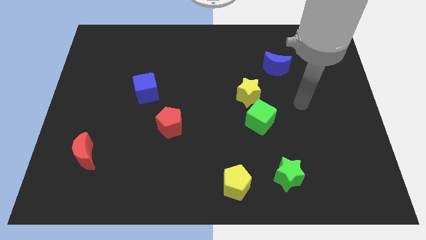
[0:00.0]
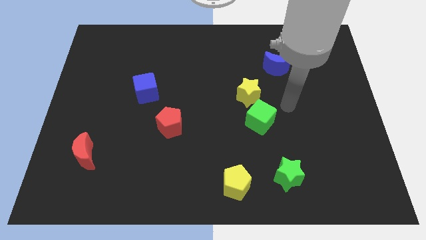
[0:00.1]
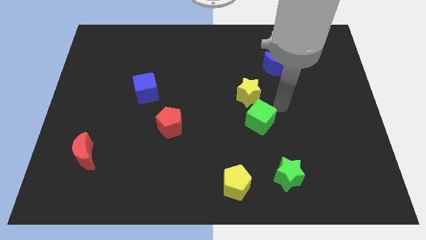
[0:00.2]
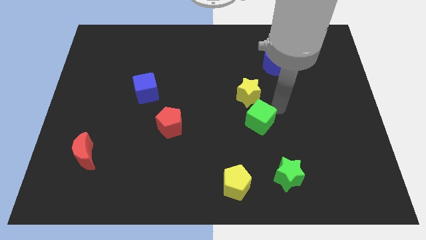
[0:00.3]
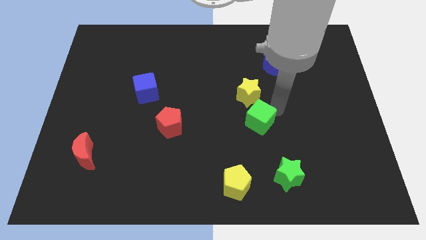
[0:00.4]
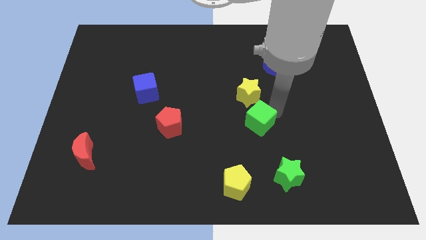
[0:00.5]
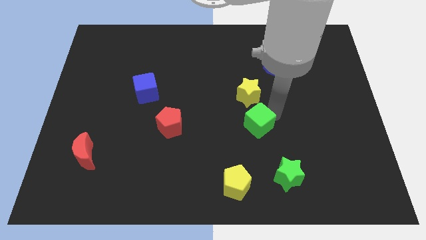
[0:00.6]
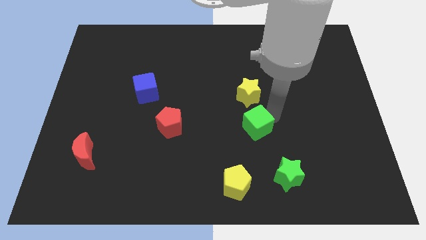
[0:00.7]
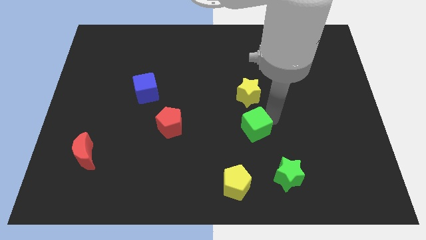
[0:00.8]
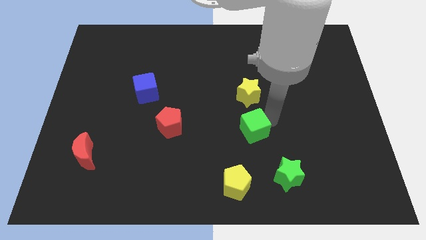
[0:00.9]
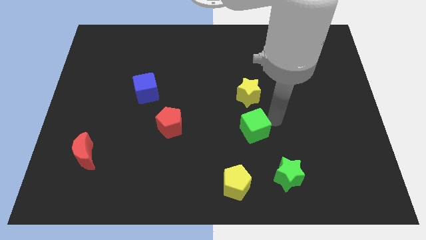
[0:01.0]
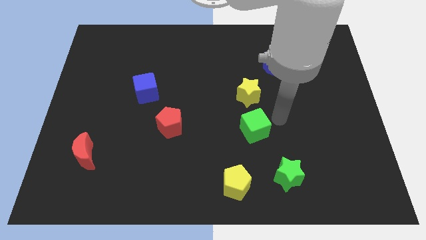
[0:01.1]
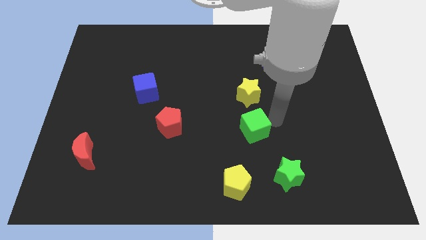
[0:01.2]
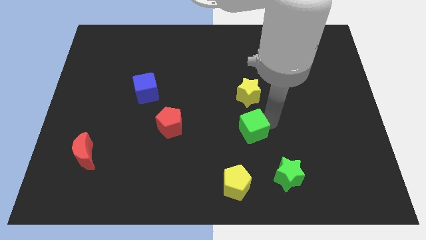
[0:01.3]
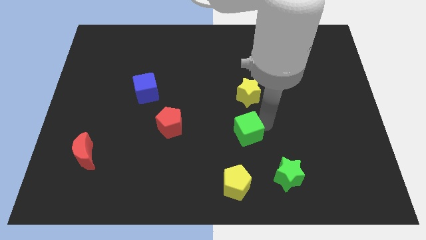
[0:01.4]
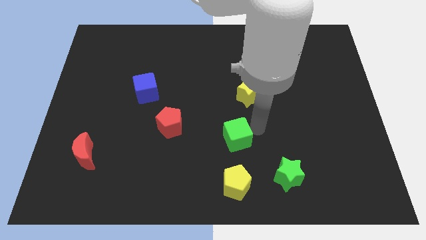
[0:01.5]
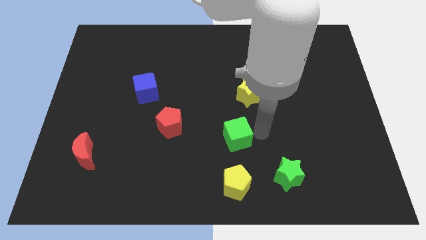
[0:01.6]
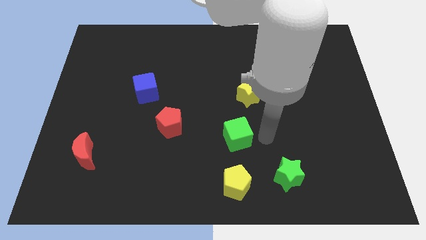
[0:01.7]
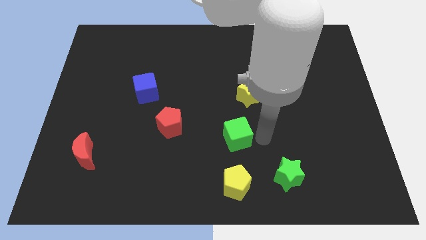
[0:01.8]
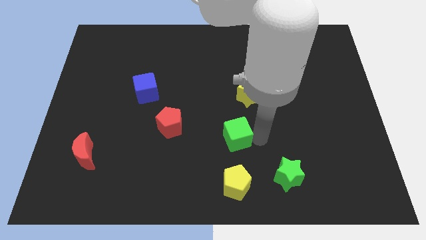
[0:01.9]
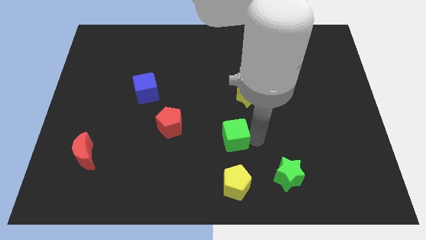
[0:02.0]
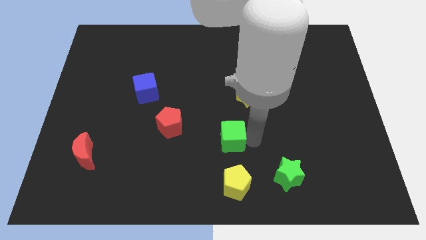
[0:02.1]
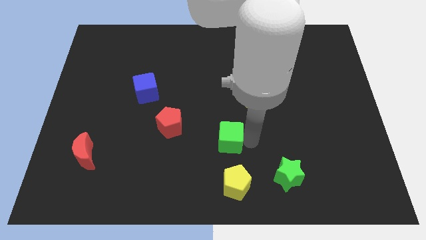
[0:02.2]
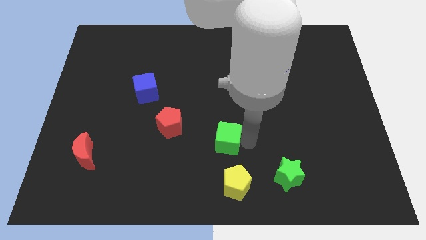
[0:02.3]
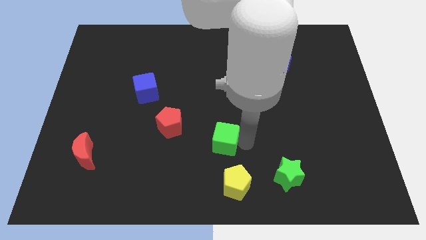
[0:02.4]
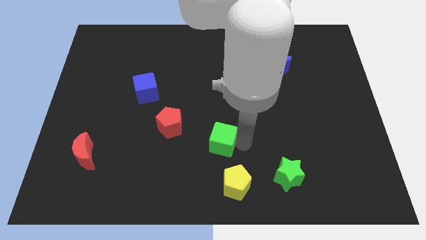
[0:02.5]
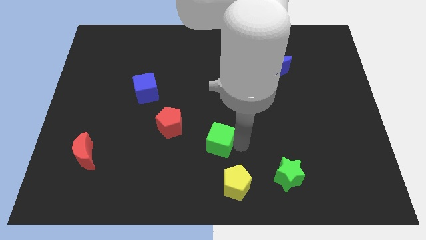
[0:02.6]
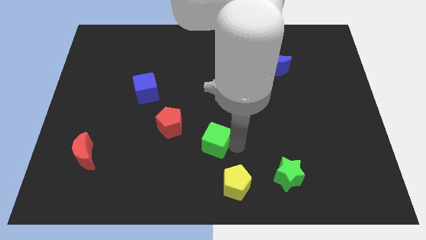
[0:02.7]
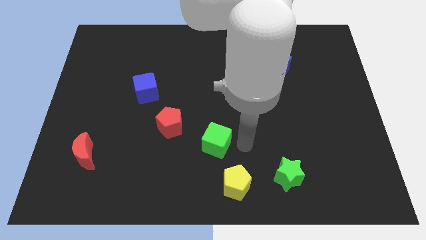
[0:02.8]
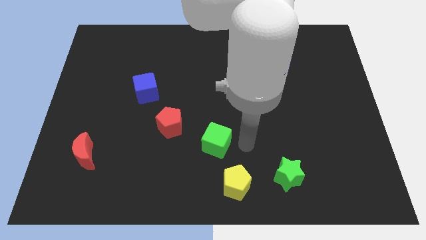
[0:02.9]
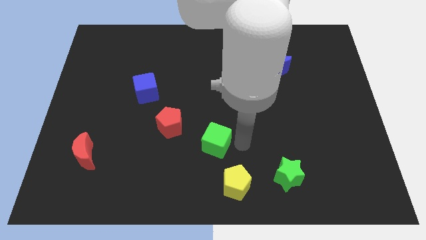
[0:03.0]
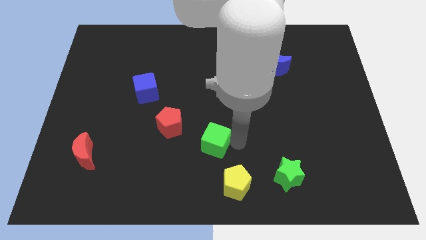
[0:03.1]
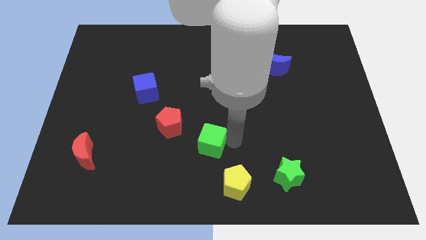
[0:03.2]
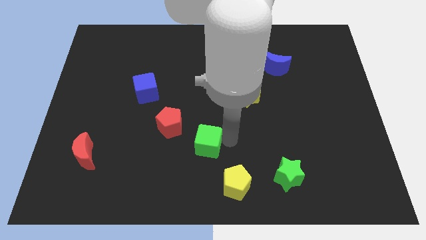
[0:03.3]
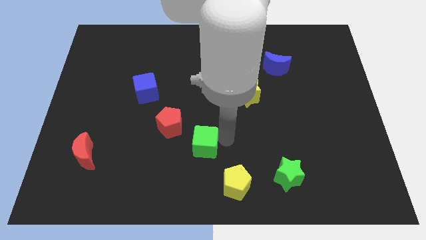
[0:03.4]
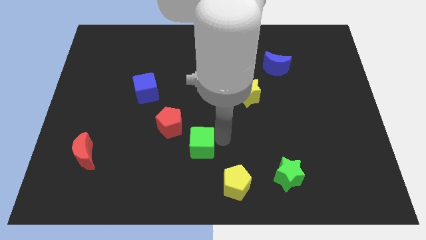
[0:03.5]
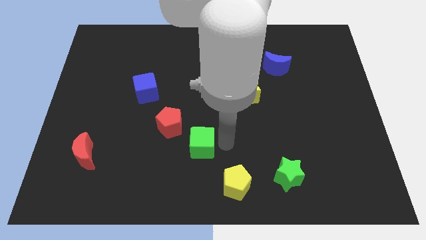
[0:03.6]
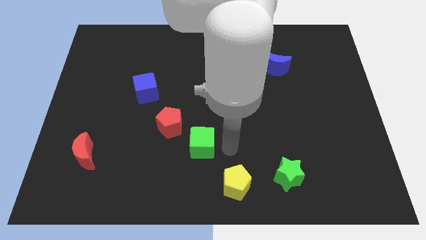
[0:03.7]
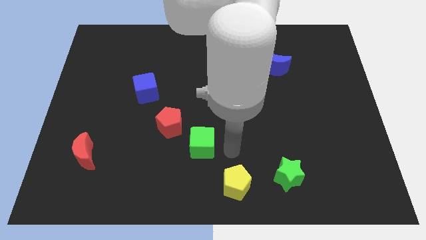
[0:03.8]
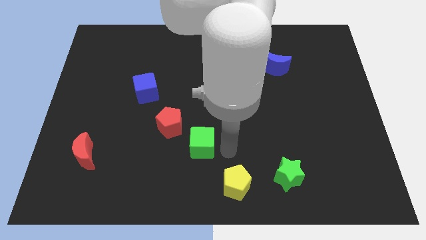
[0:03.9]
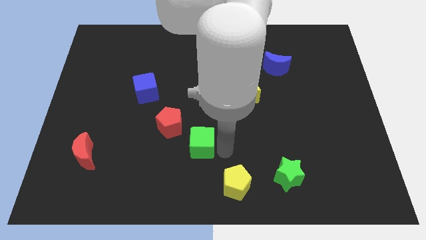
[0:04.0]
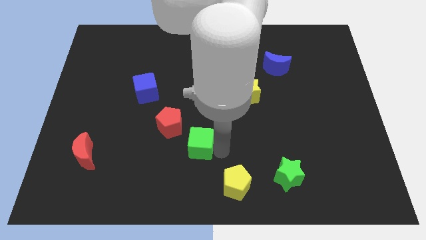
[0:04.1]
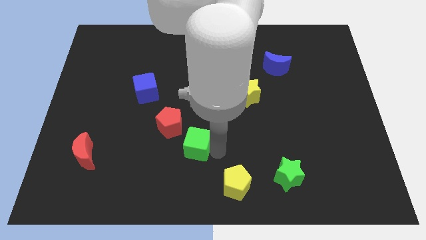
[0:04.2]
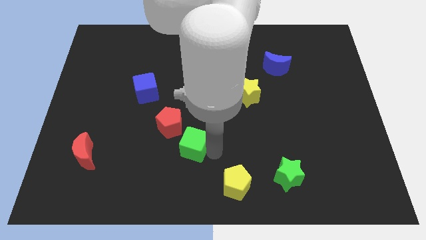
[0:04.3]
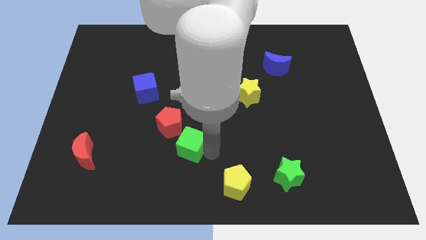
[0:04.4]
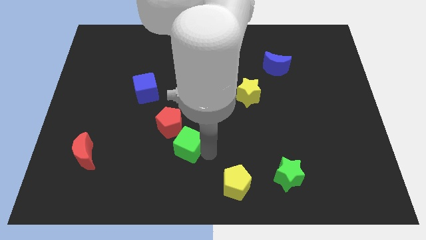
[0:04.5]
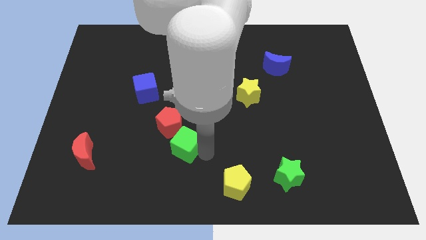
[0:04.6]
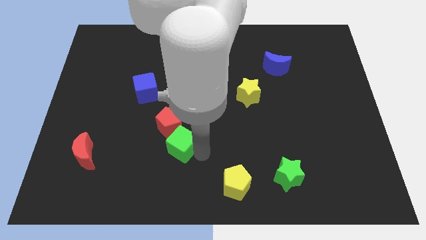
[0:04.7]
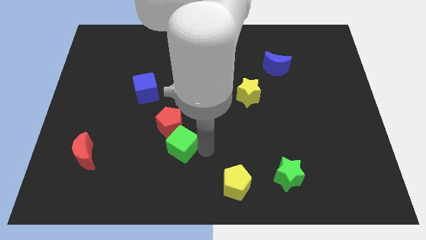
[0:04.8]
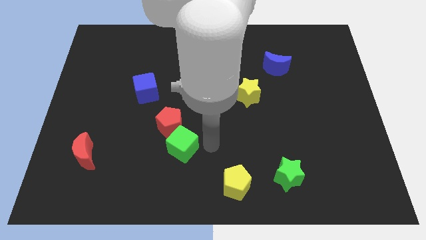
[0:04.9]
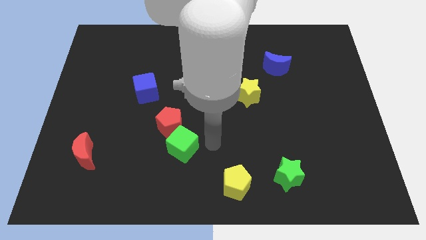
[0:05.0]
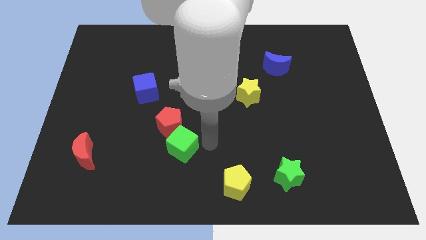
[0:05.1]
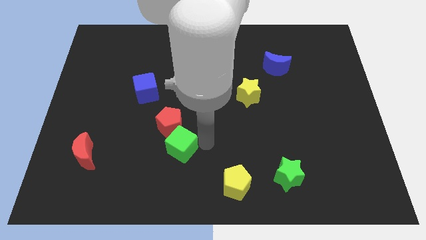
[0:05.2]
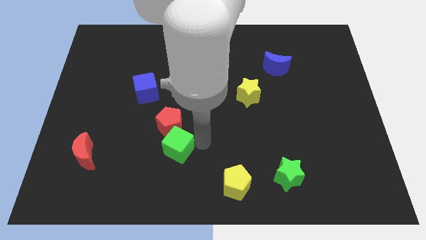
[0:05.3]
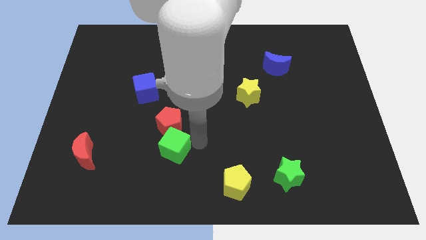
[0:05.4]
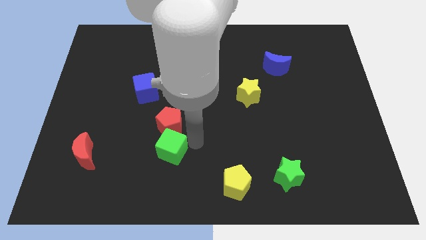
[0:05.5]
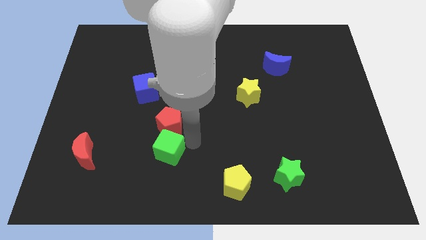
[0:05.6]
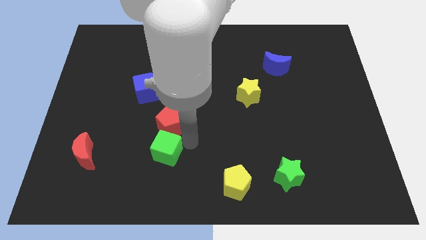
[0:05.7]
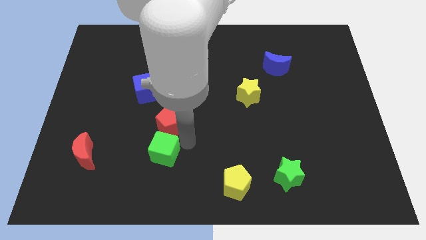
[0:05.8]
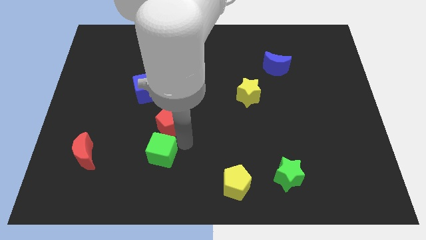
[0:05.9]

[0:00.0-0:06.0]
move the green cube just right of the red moon
